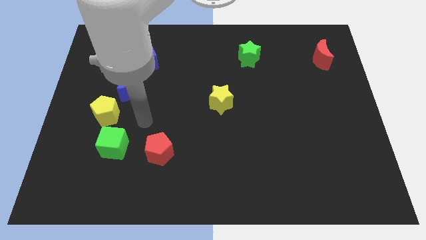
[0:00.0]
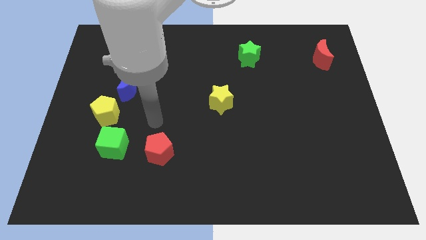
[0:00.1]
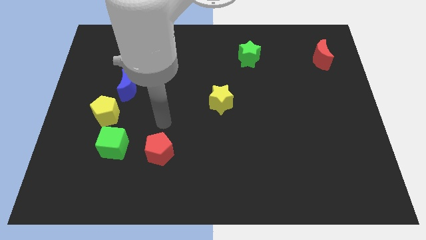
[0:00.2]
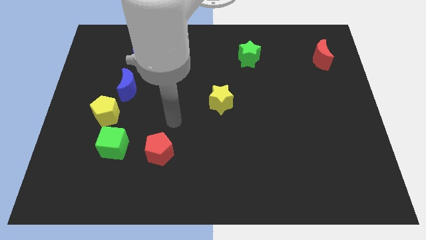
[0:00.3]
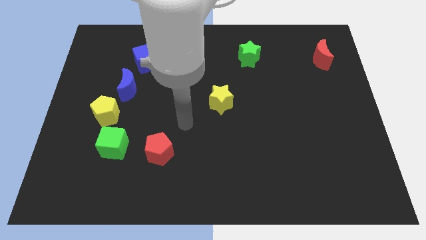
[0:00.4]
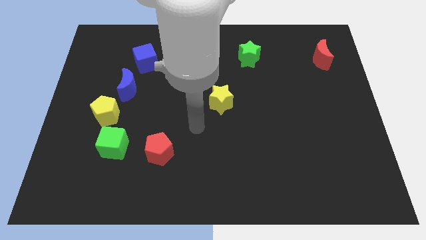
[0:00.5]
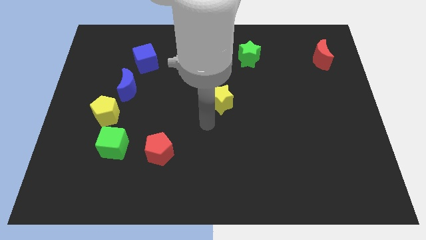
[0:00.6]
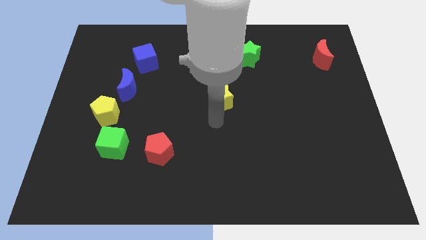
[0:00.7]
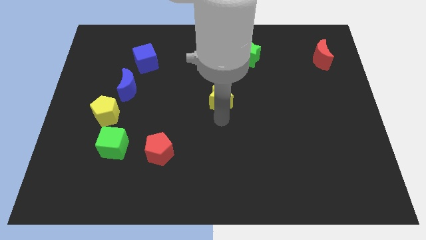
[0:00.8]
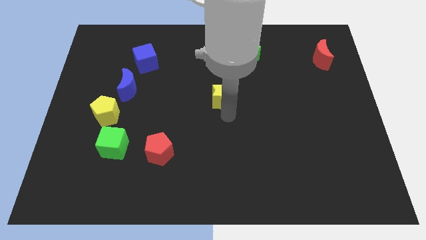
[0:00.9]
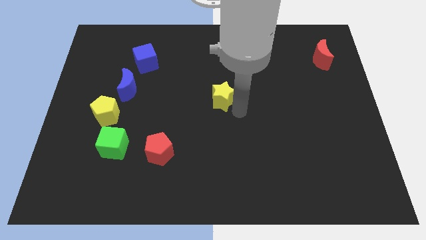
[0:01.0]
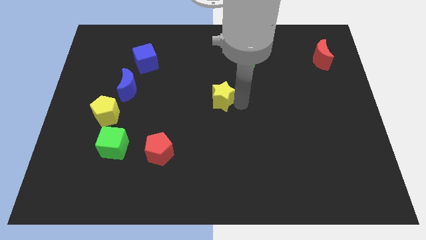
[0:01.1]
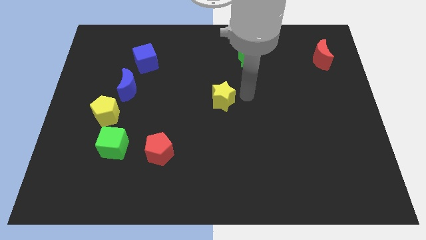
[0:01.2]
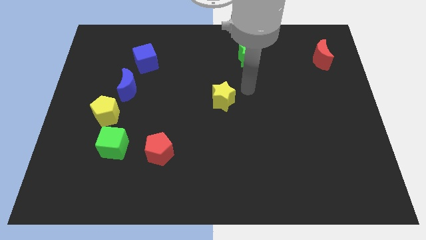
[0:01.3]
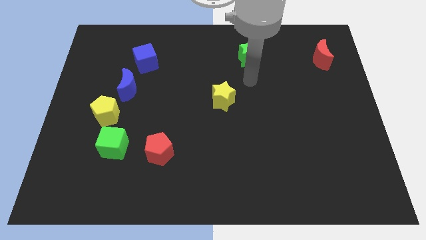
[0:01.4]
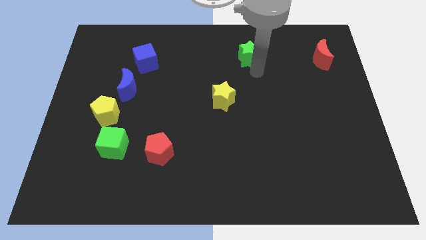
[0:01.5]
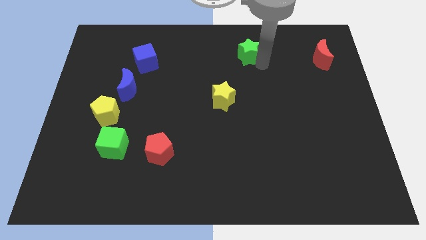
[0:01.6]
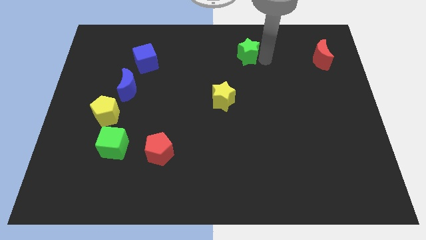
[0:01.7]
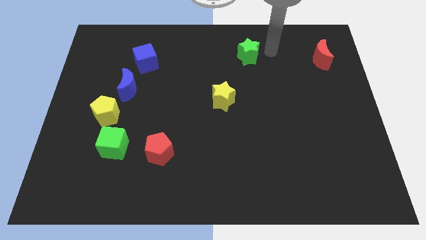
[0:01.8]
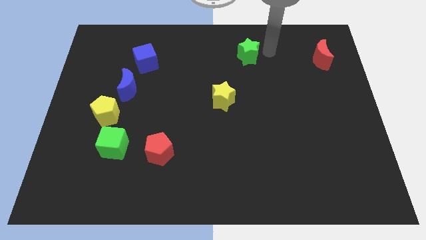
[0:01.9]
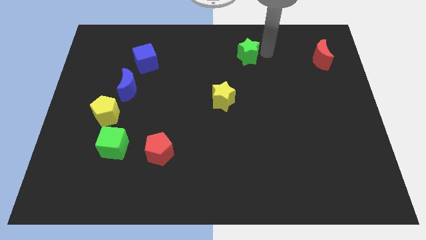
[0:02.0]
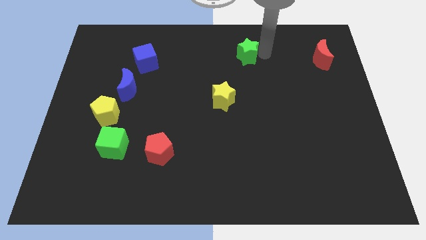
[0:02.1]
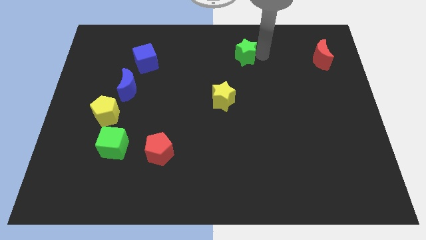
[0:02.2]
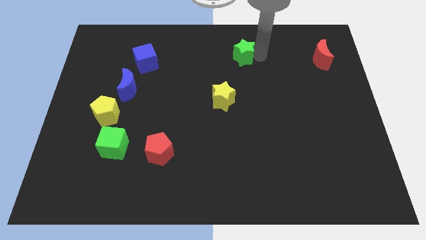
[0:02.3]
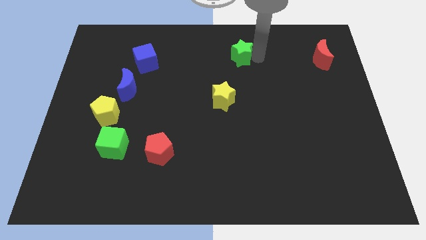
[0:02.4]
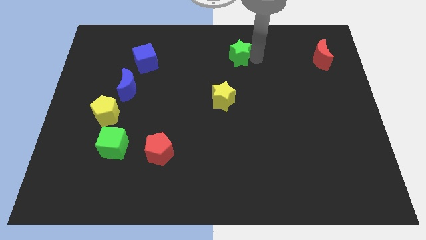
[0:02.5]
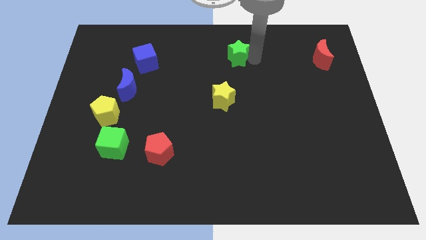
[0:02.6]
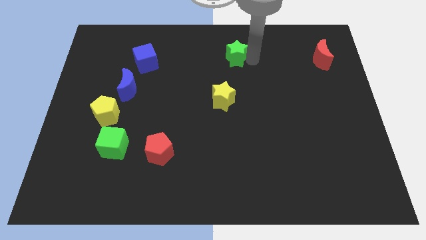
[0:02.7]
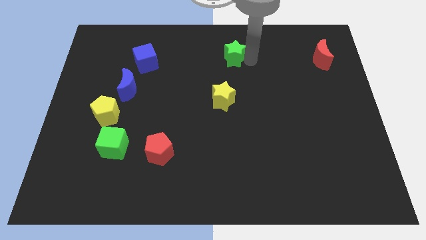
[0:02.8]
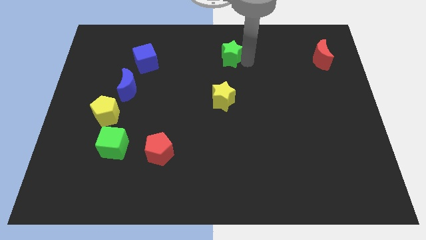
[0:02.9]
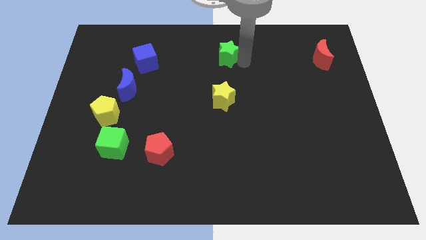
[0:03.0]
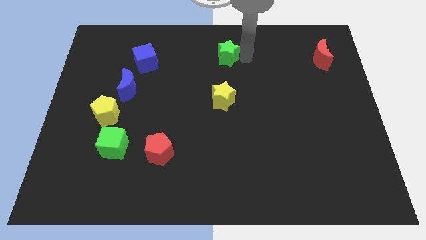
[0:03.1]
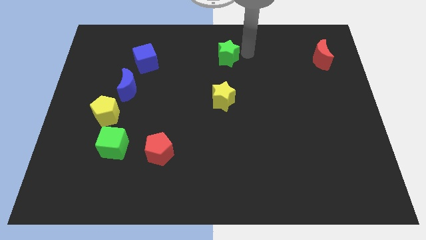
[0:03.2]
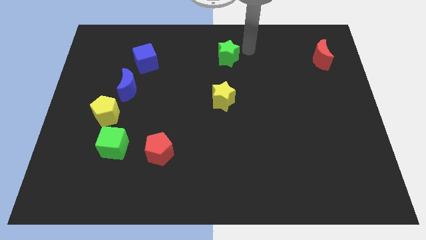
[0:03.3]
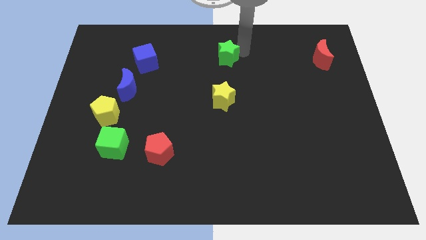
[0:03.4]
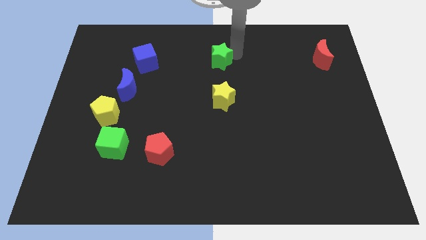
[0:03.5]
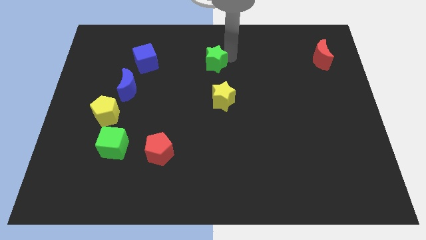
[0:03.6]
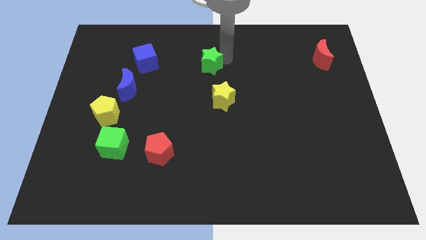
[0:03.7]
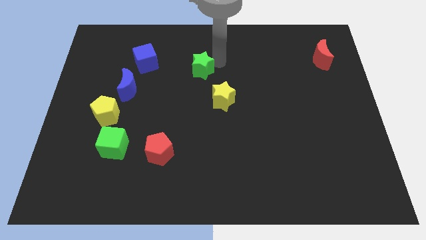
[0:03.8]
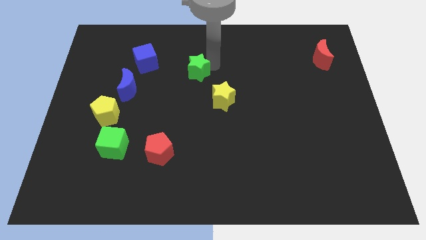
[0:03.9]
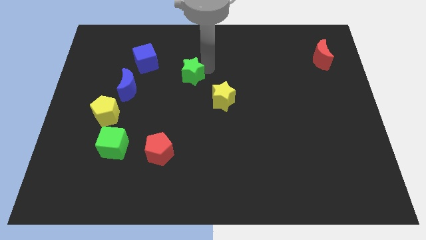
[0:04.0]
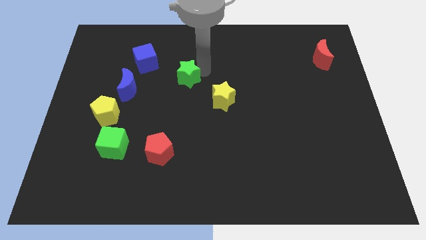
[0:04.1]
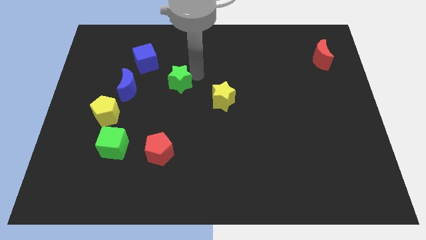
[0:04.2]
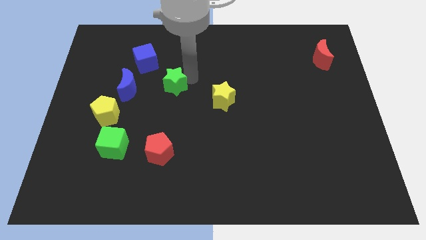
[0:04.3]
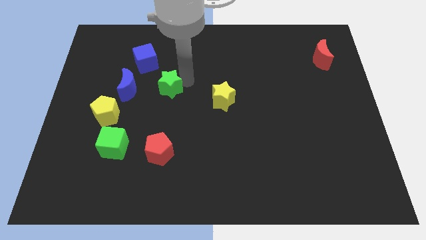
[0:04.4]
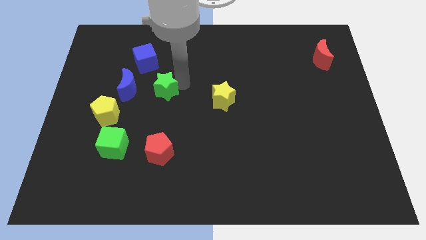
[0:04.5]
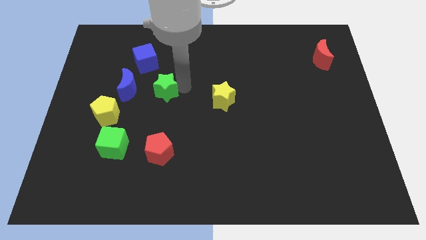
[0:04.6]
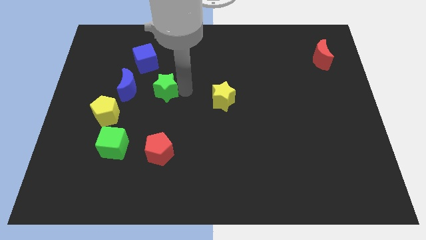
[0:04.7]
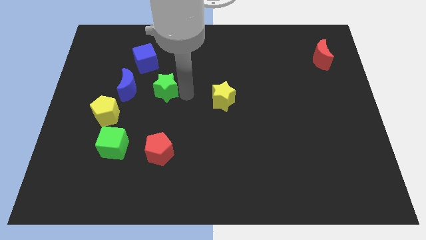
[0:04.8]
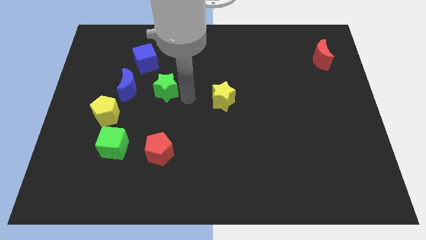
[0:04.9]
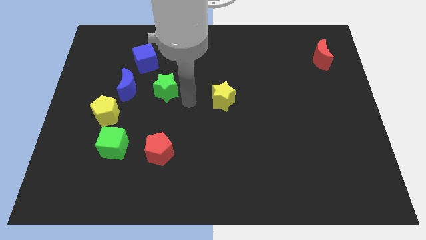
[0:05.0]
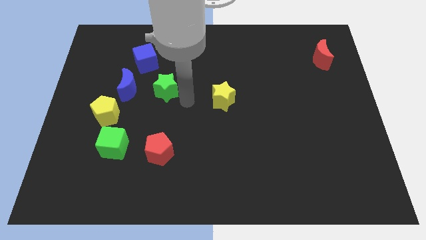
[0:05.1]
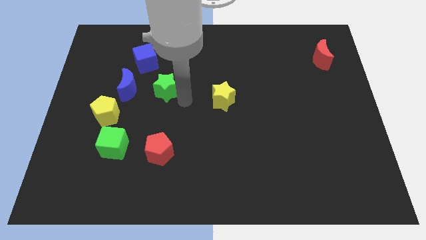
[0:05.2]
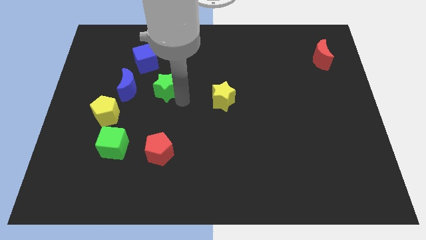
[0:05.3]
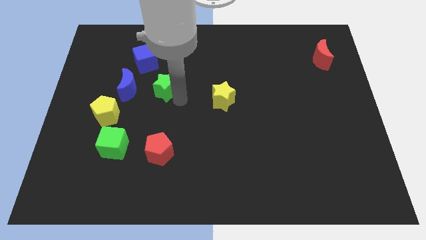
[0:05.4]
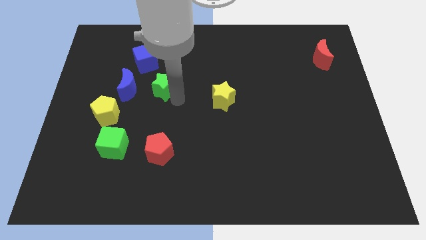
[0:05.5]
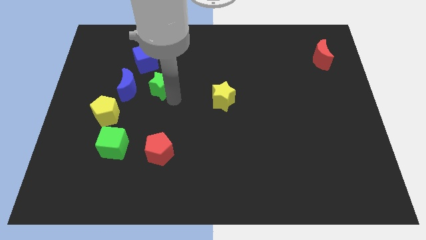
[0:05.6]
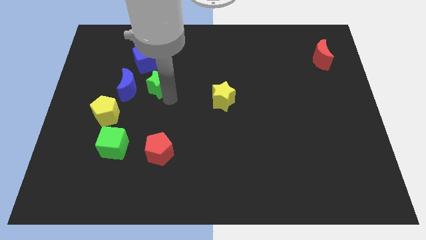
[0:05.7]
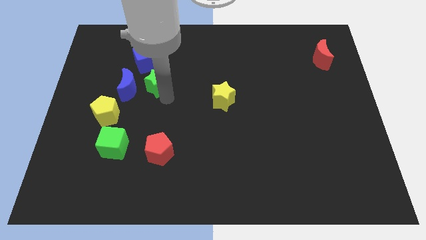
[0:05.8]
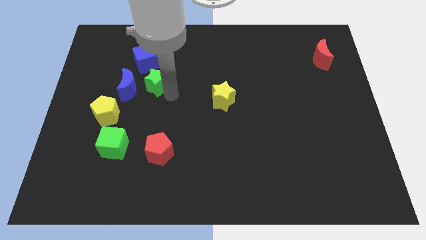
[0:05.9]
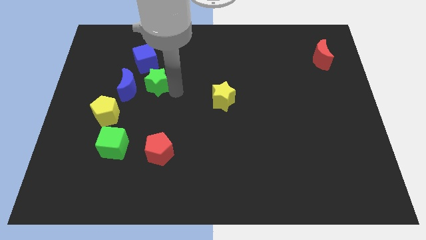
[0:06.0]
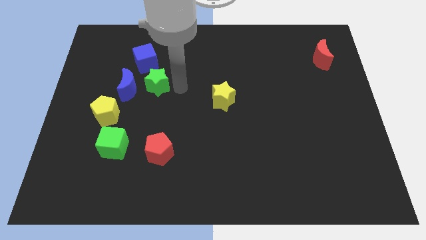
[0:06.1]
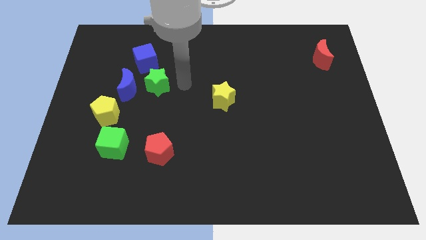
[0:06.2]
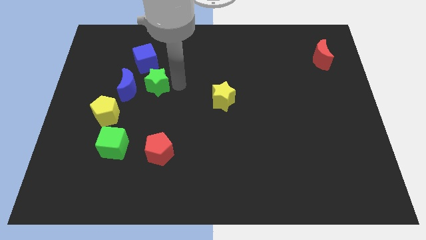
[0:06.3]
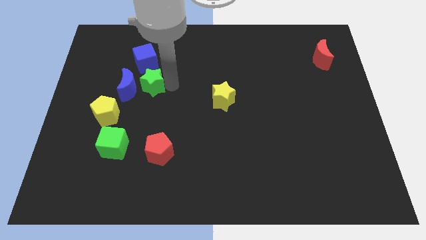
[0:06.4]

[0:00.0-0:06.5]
slide the green star next to the blue moon

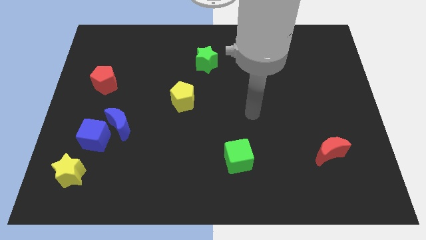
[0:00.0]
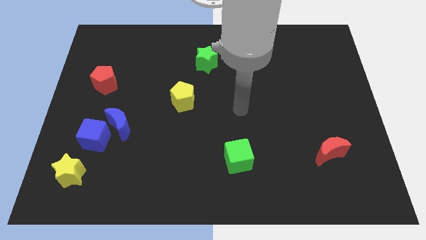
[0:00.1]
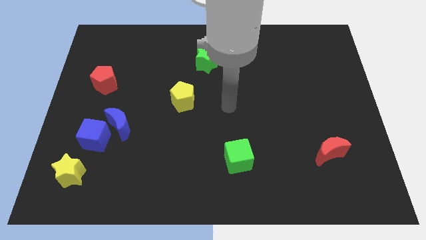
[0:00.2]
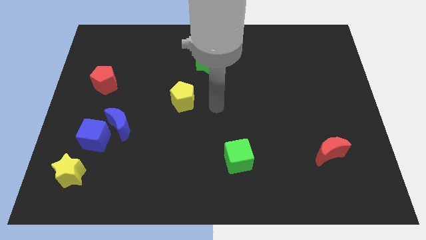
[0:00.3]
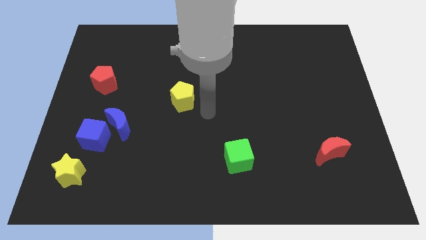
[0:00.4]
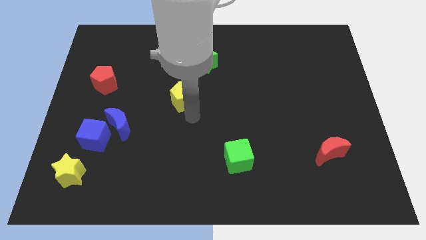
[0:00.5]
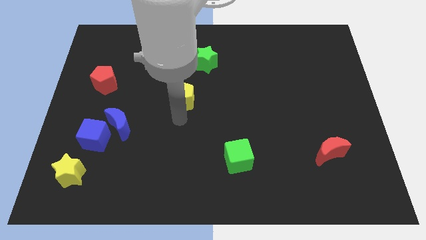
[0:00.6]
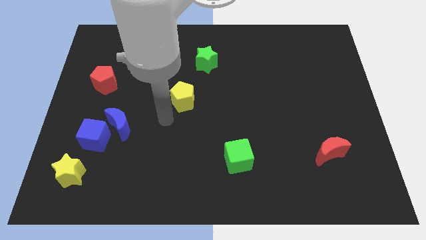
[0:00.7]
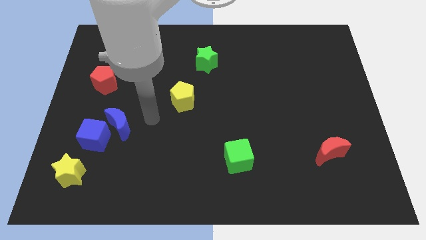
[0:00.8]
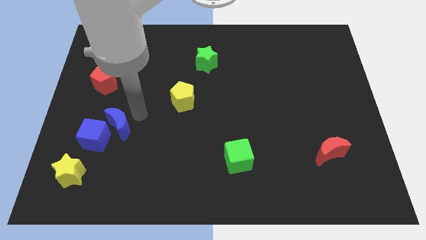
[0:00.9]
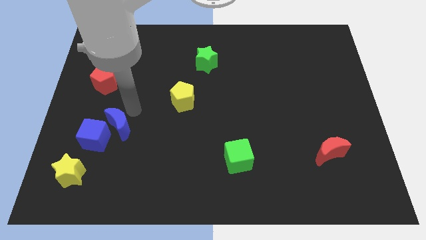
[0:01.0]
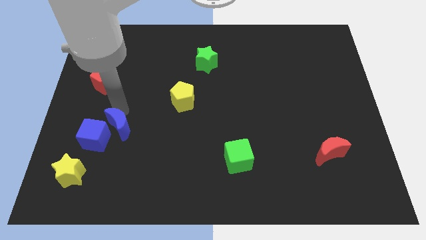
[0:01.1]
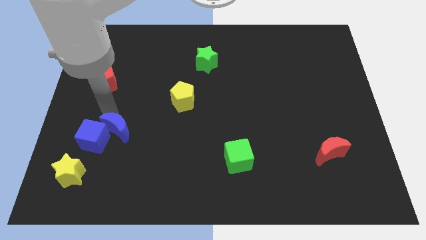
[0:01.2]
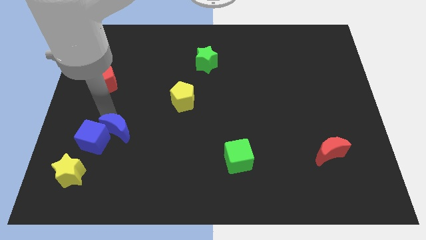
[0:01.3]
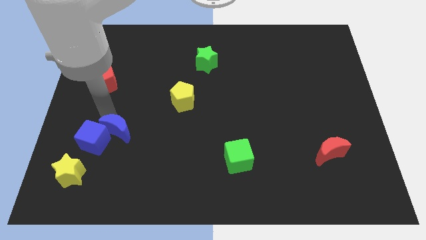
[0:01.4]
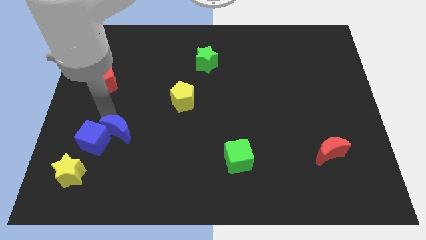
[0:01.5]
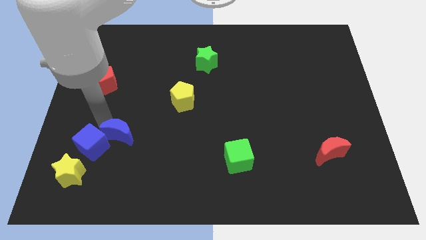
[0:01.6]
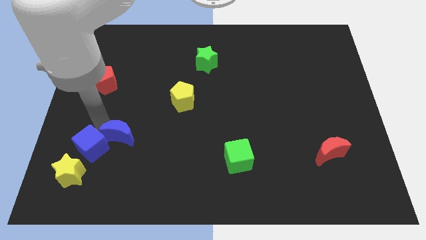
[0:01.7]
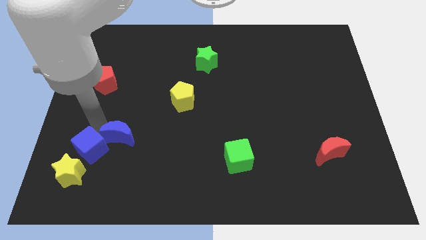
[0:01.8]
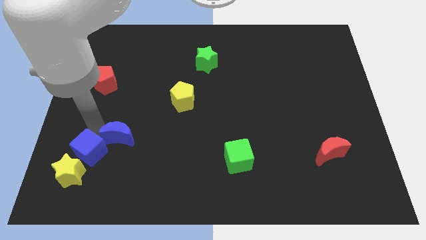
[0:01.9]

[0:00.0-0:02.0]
push the blue cube next to the yellow star
